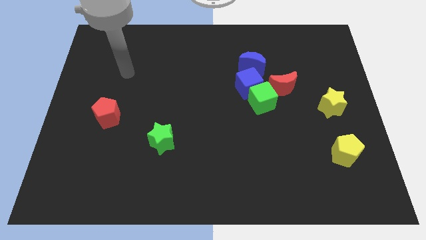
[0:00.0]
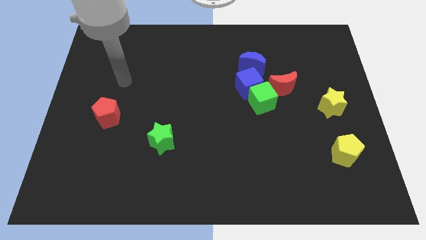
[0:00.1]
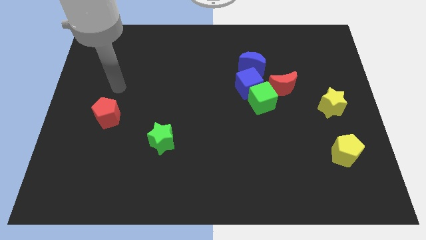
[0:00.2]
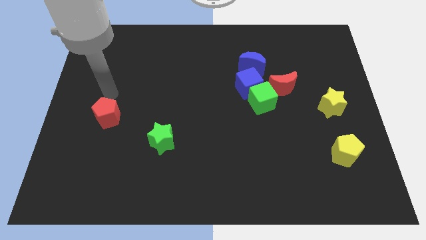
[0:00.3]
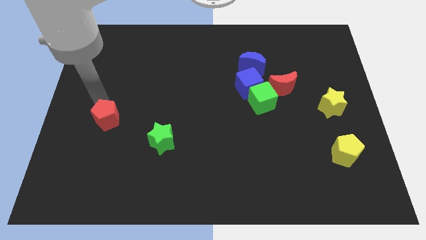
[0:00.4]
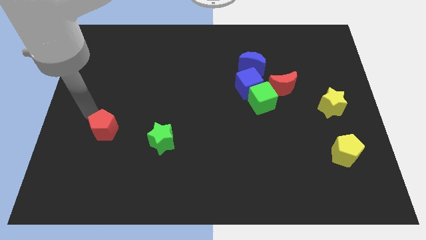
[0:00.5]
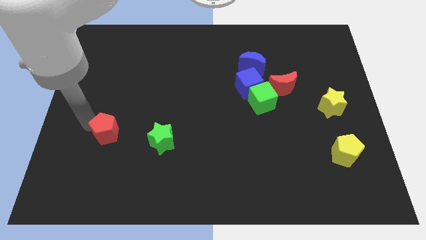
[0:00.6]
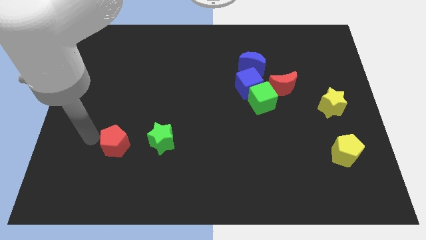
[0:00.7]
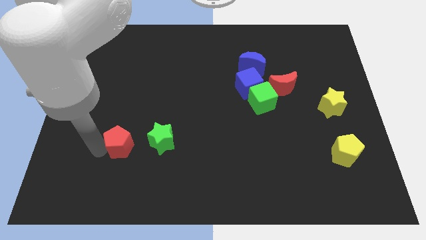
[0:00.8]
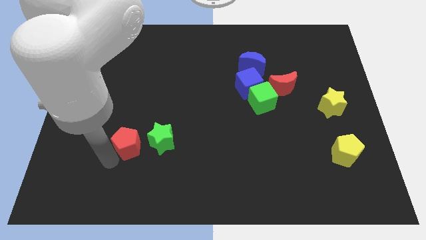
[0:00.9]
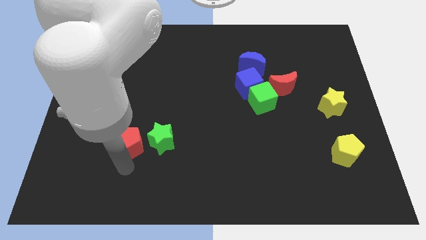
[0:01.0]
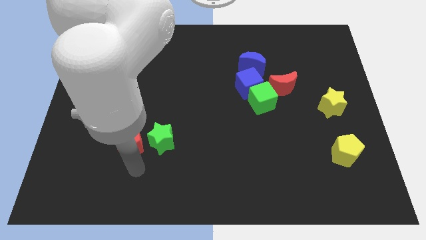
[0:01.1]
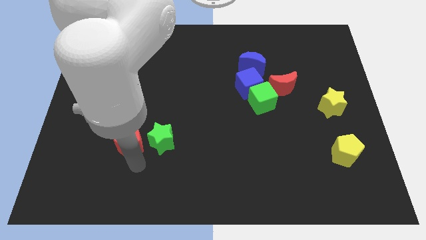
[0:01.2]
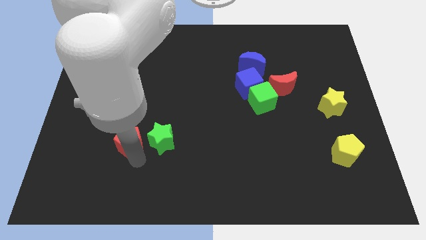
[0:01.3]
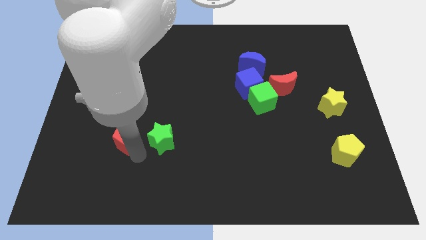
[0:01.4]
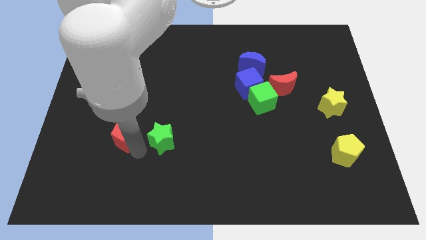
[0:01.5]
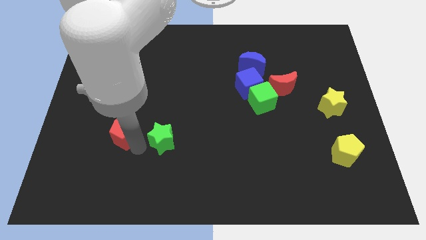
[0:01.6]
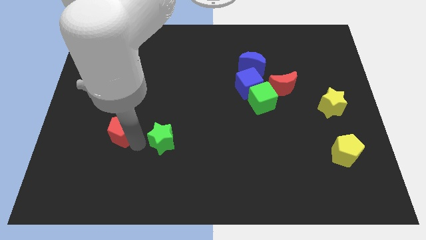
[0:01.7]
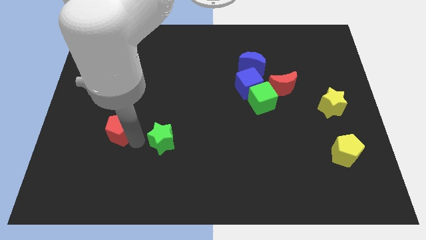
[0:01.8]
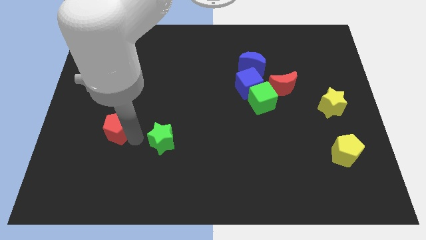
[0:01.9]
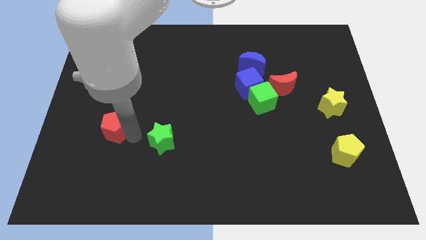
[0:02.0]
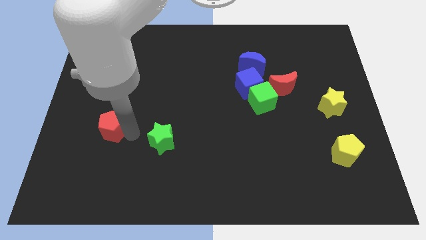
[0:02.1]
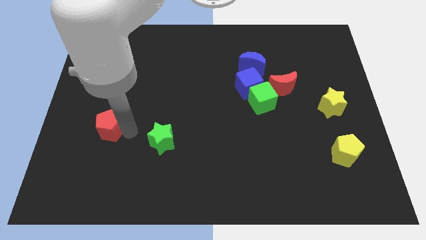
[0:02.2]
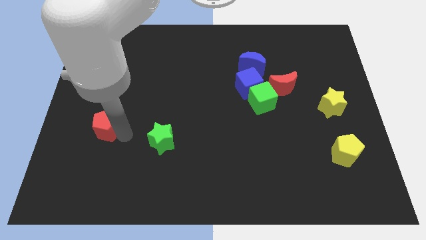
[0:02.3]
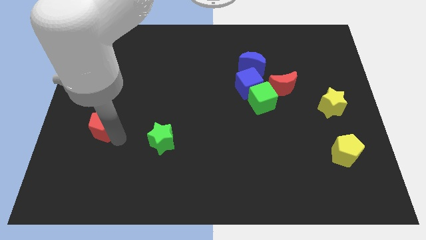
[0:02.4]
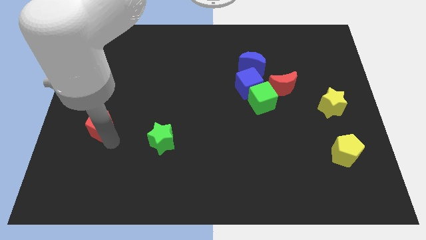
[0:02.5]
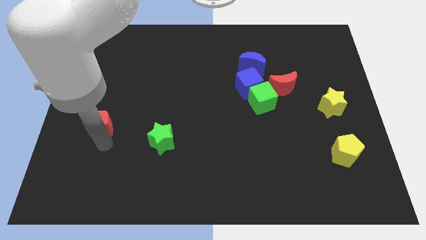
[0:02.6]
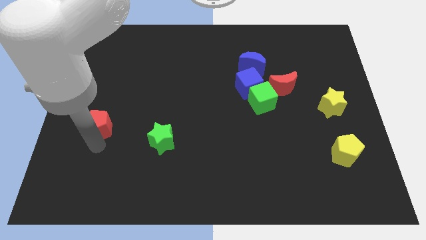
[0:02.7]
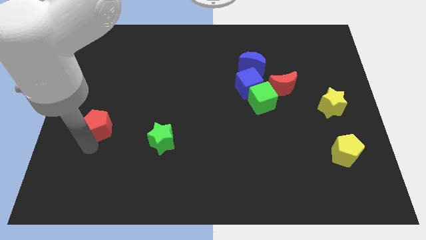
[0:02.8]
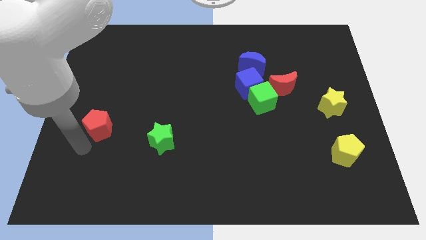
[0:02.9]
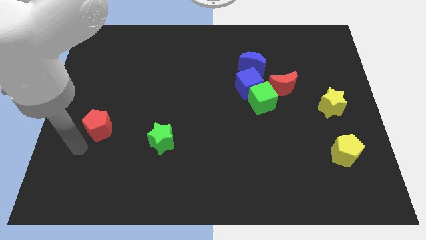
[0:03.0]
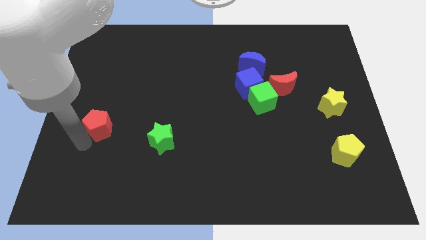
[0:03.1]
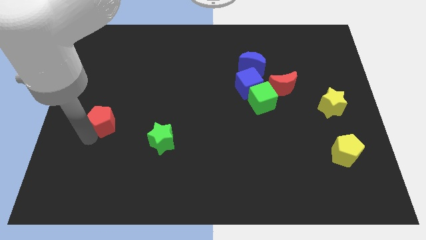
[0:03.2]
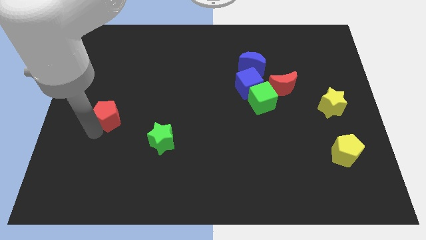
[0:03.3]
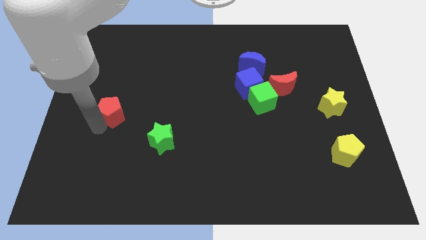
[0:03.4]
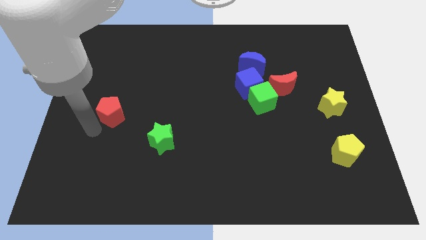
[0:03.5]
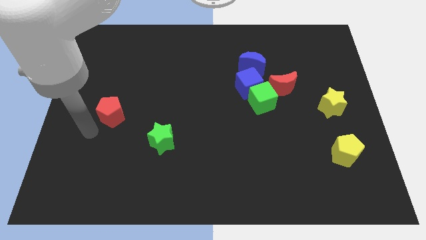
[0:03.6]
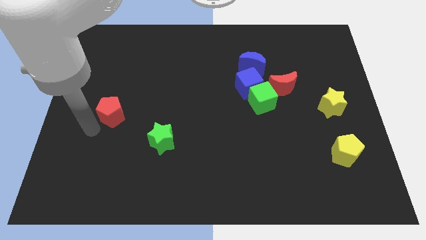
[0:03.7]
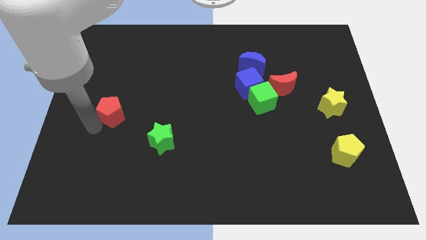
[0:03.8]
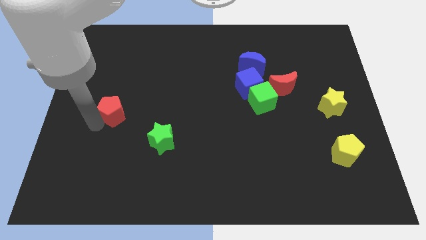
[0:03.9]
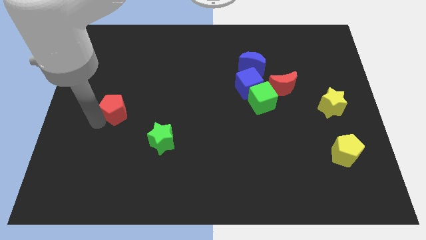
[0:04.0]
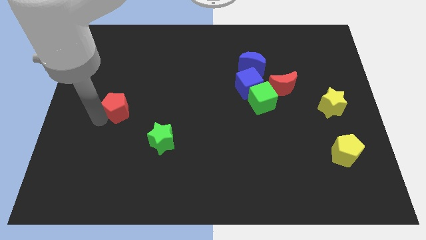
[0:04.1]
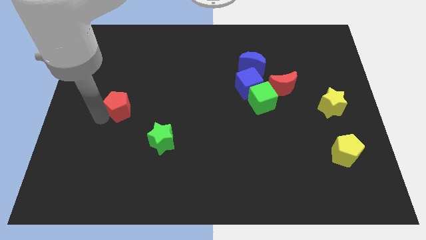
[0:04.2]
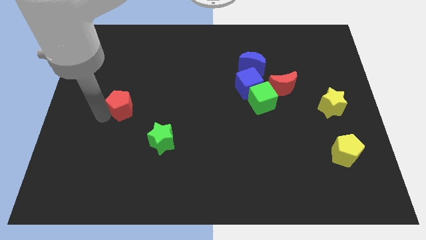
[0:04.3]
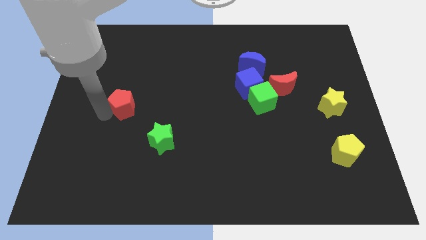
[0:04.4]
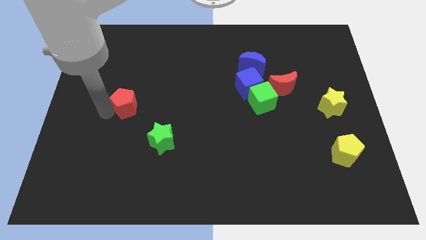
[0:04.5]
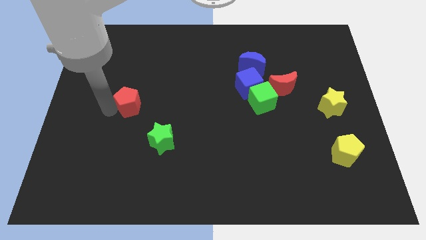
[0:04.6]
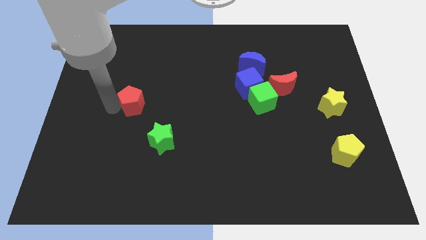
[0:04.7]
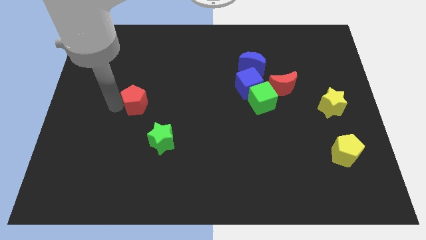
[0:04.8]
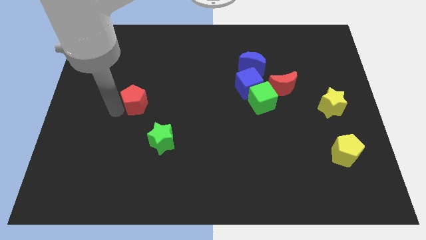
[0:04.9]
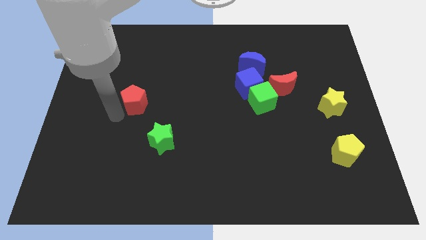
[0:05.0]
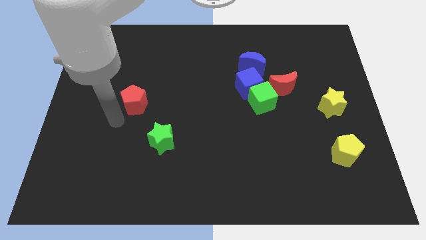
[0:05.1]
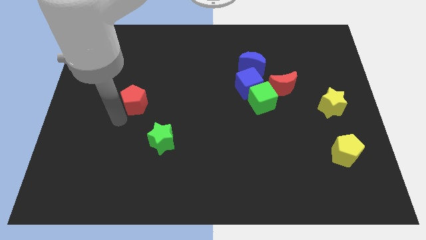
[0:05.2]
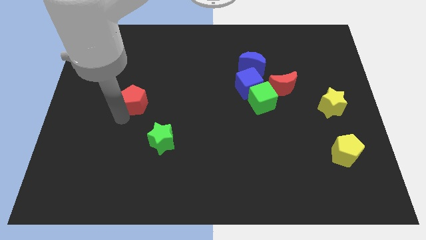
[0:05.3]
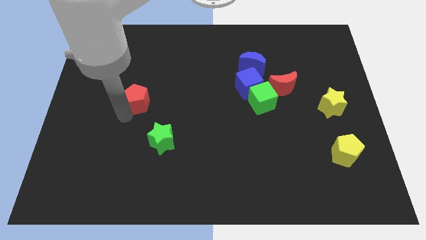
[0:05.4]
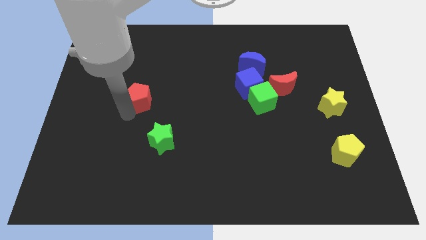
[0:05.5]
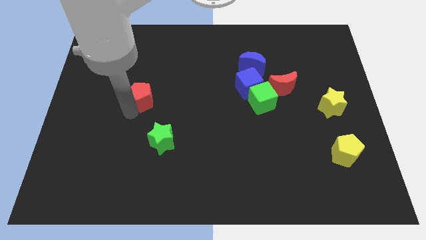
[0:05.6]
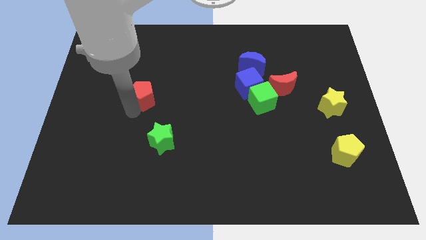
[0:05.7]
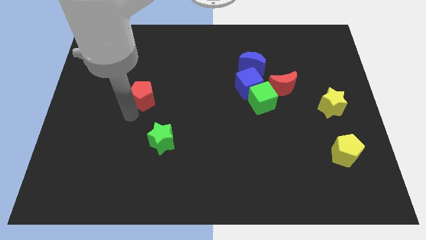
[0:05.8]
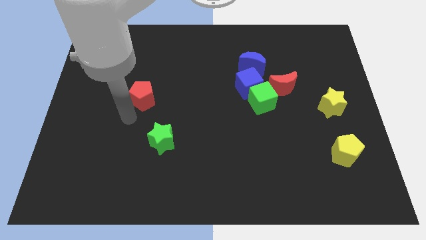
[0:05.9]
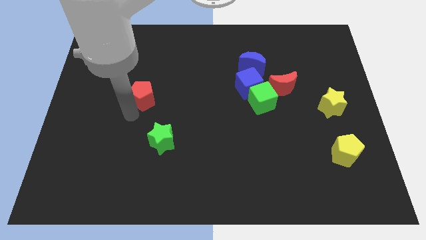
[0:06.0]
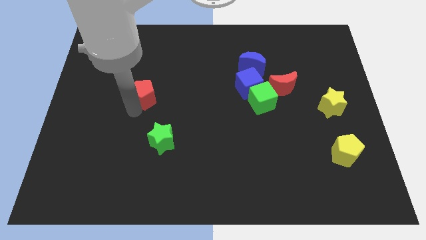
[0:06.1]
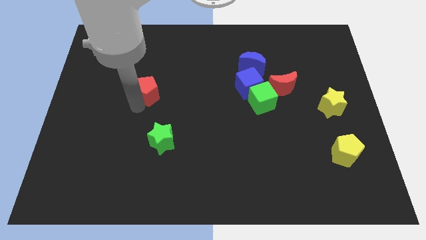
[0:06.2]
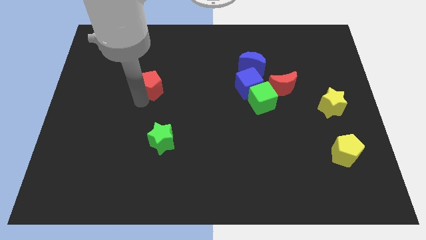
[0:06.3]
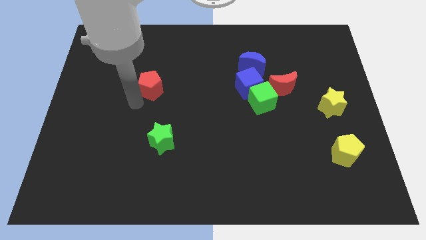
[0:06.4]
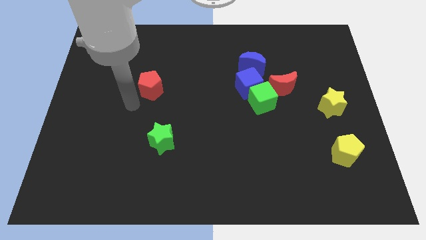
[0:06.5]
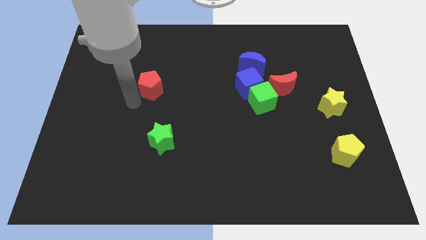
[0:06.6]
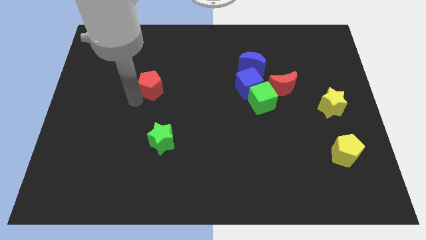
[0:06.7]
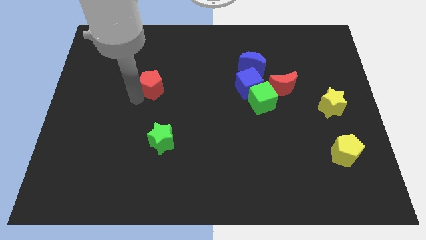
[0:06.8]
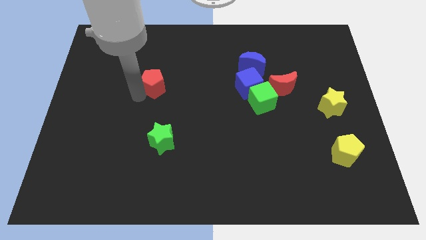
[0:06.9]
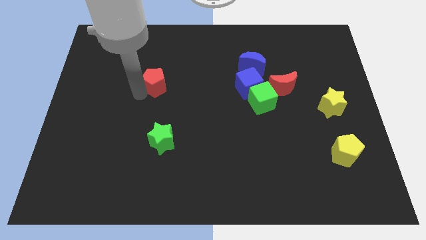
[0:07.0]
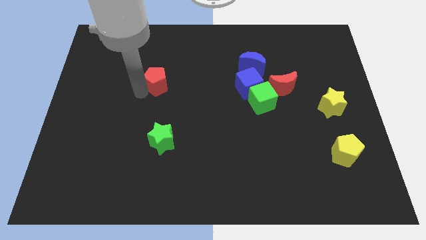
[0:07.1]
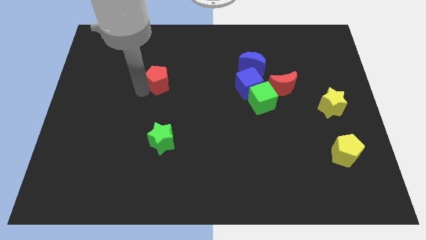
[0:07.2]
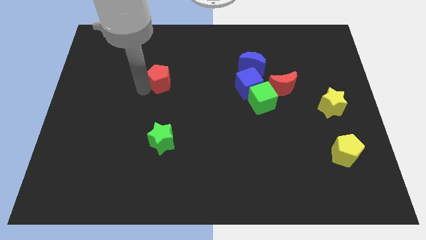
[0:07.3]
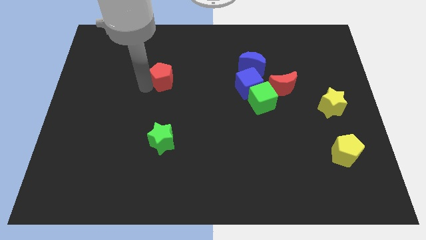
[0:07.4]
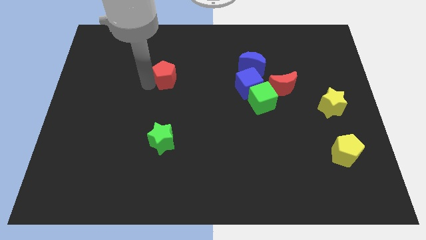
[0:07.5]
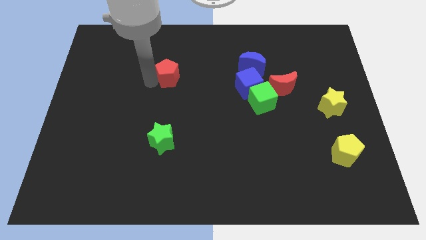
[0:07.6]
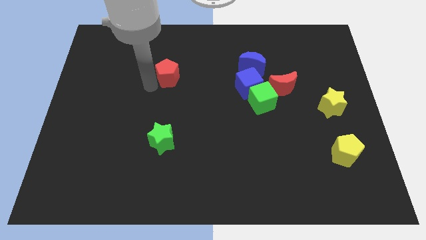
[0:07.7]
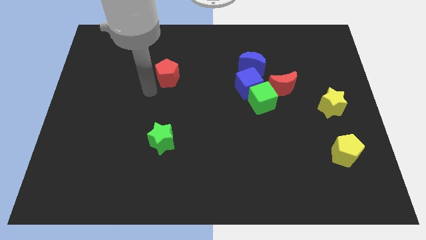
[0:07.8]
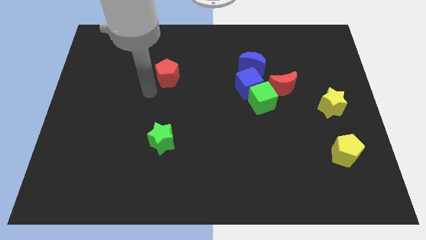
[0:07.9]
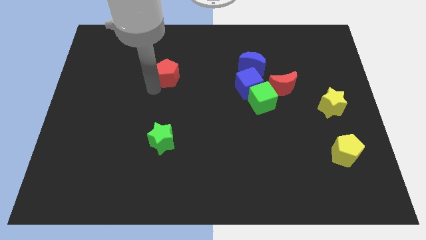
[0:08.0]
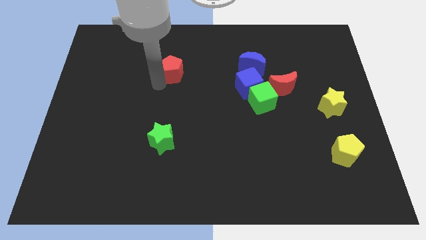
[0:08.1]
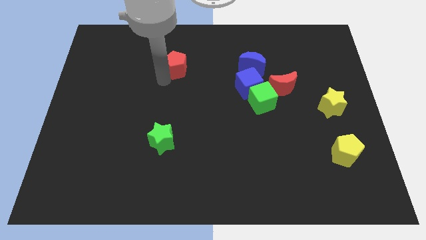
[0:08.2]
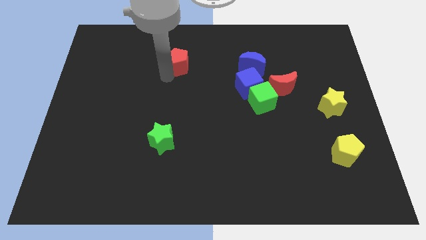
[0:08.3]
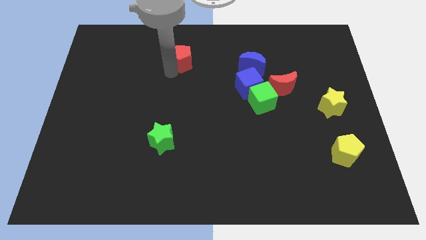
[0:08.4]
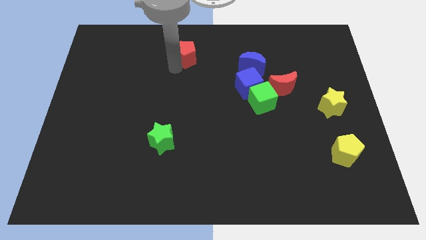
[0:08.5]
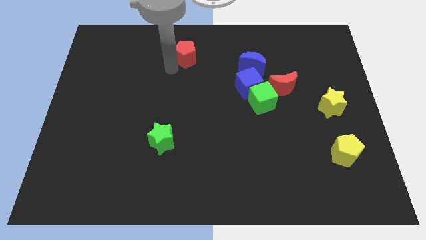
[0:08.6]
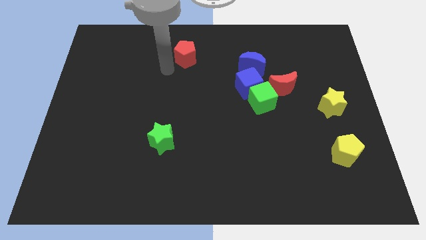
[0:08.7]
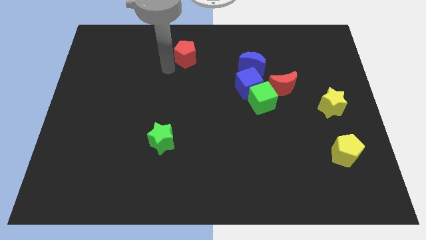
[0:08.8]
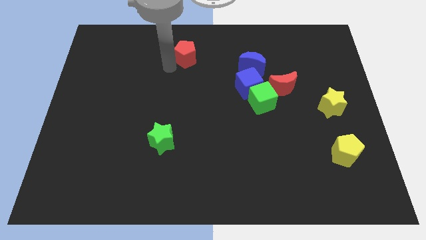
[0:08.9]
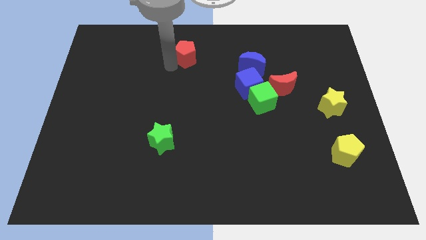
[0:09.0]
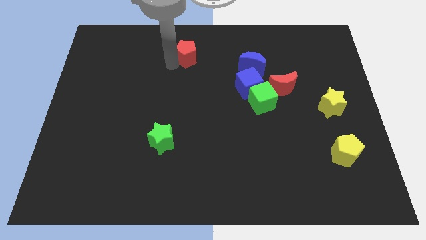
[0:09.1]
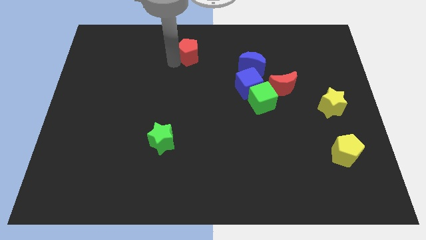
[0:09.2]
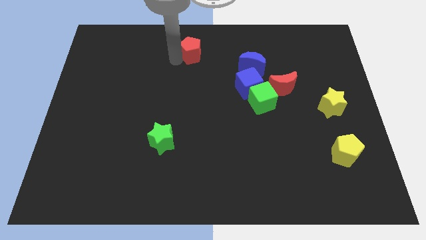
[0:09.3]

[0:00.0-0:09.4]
slide the red pentagon to the top
